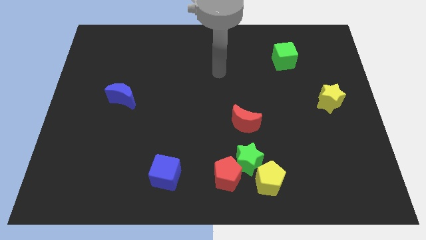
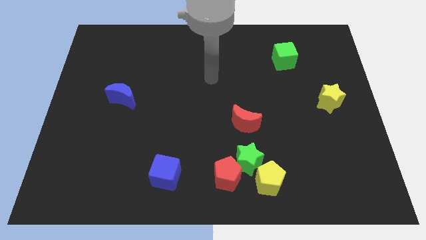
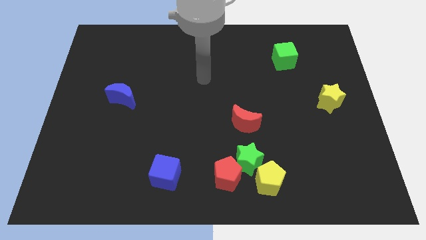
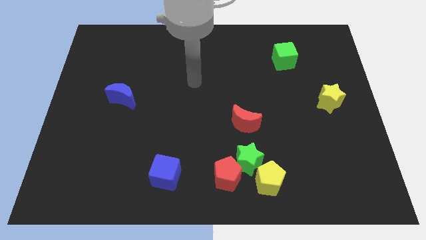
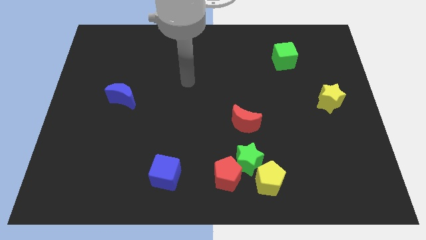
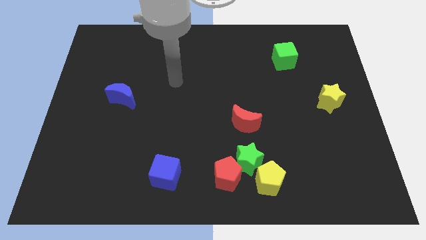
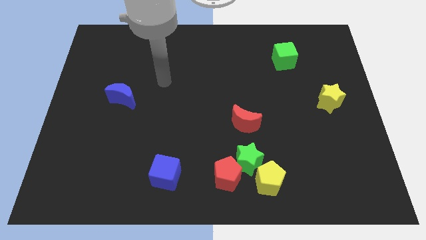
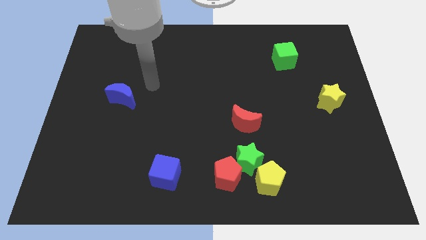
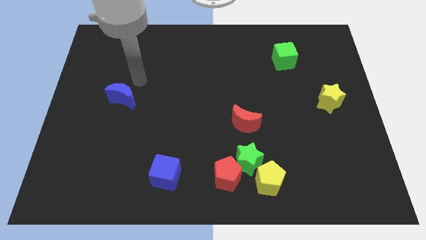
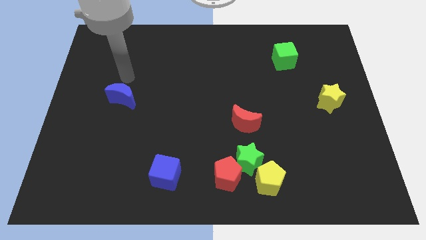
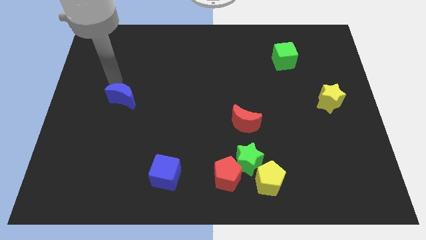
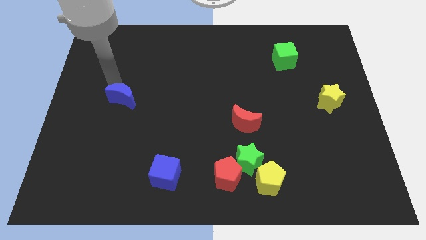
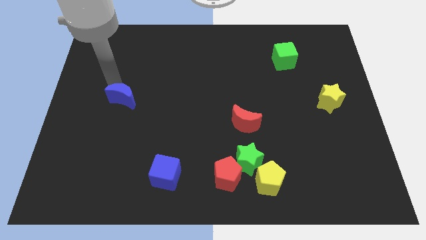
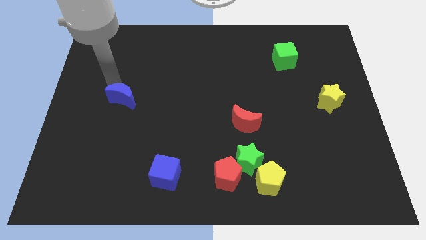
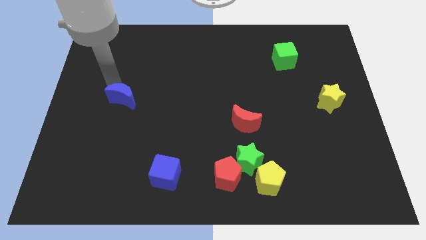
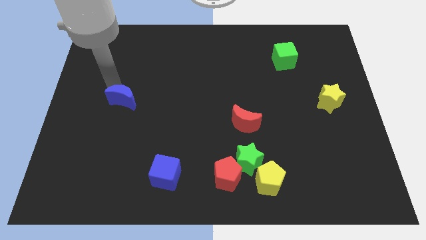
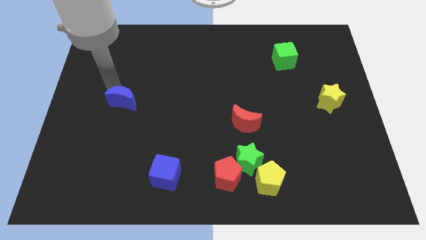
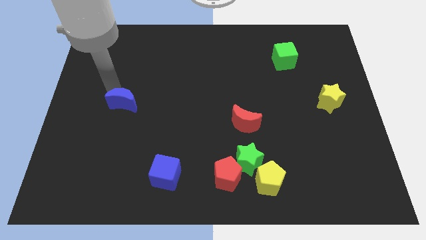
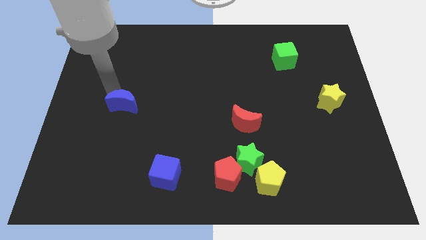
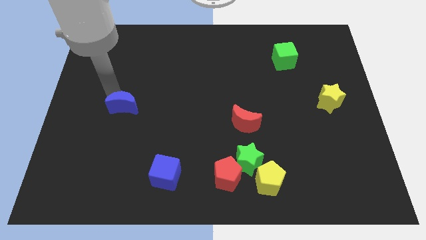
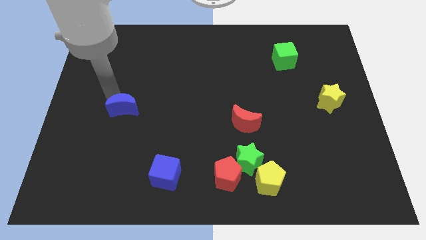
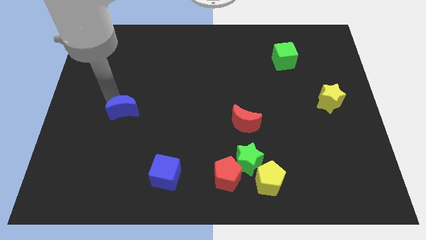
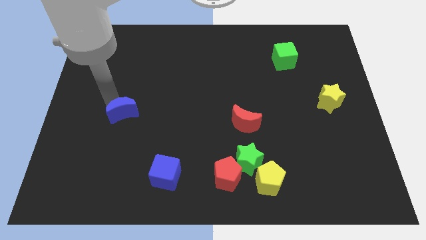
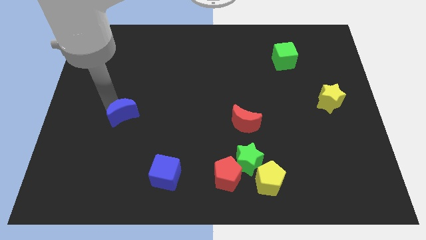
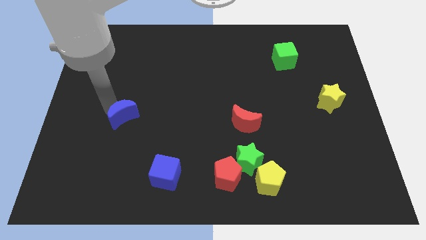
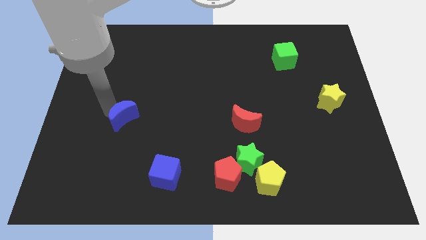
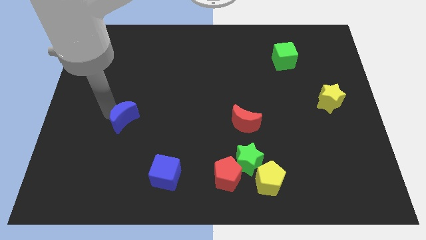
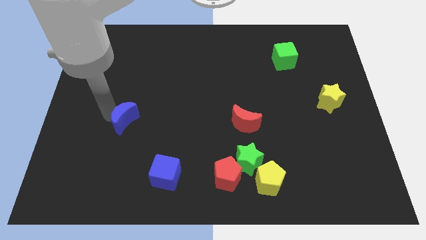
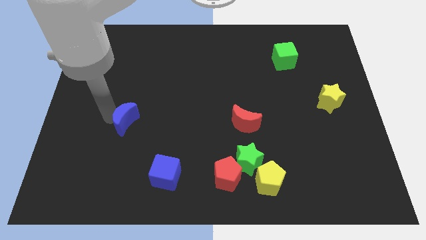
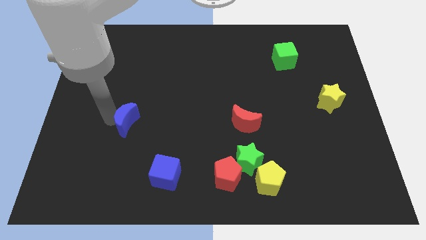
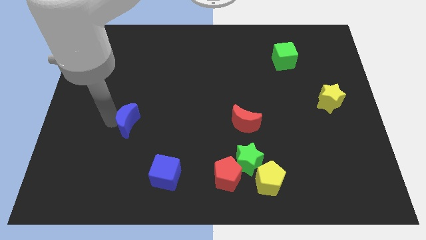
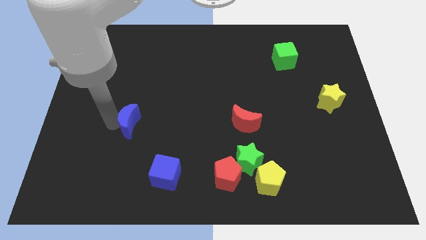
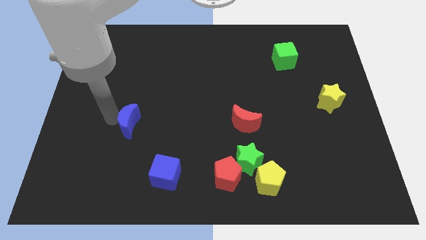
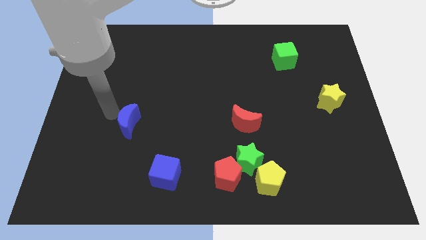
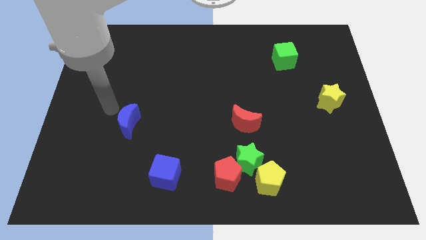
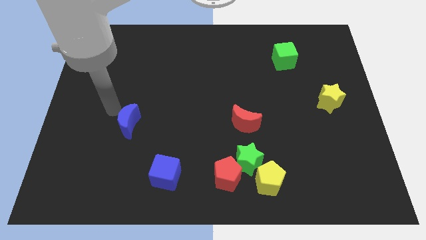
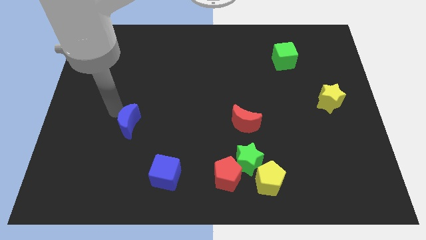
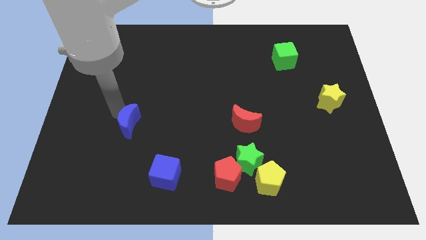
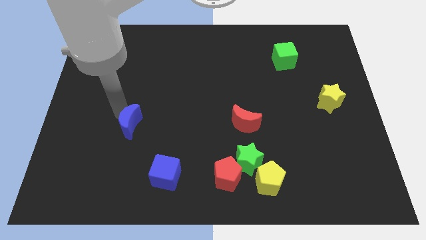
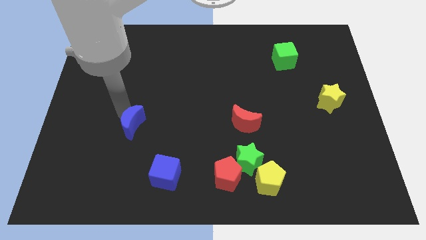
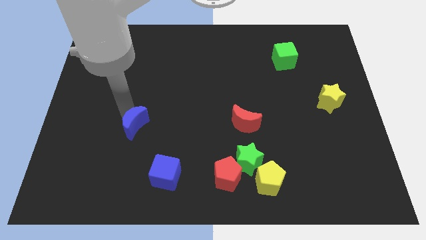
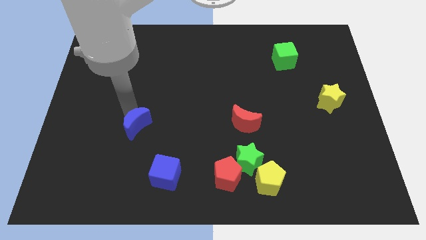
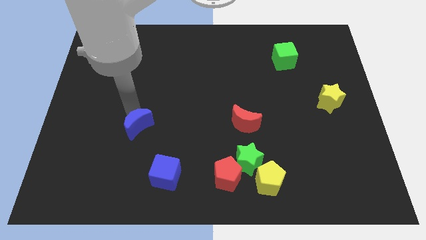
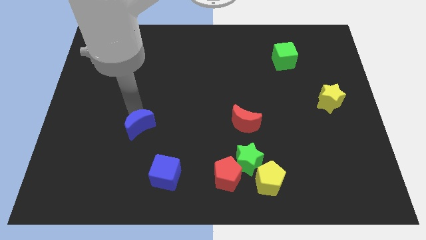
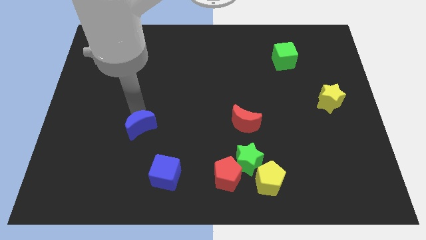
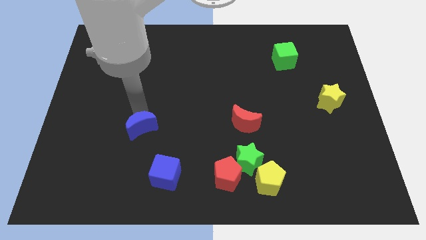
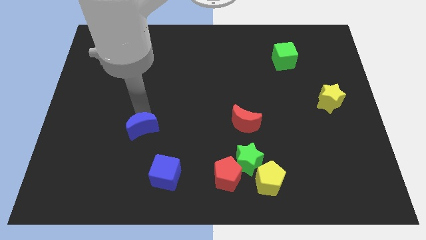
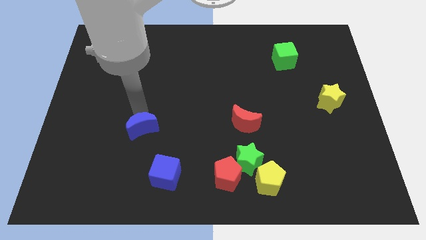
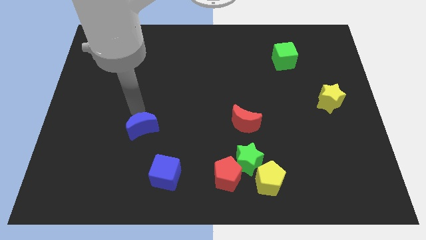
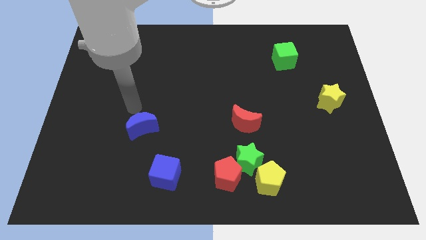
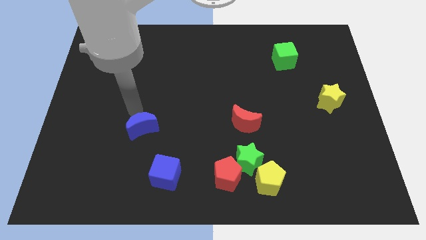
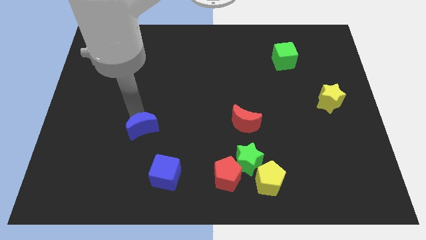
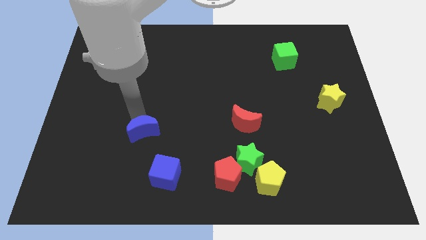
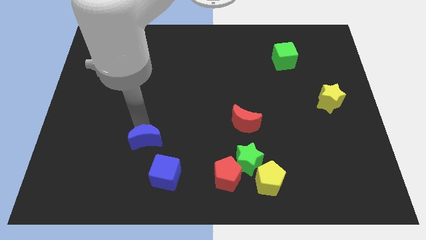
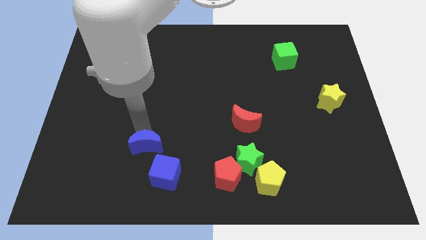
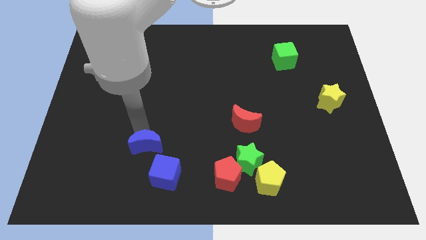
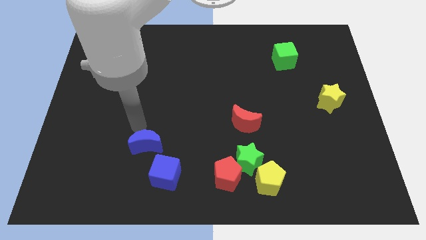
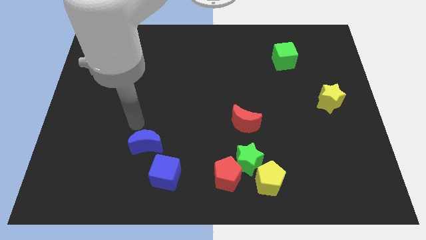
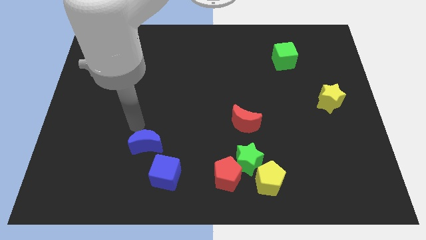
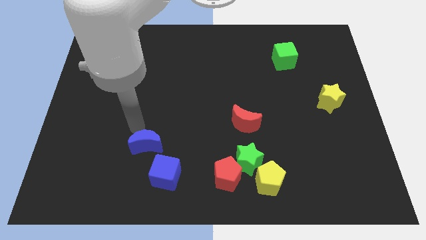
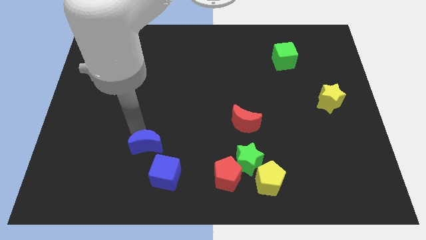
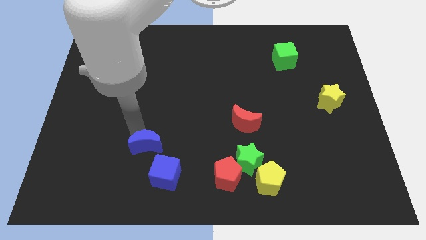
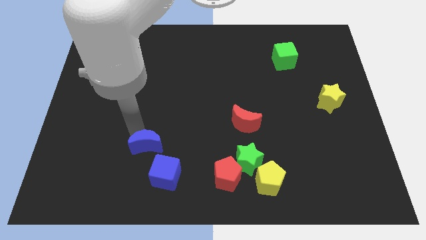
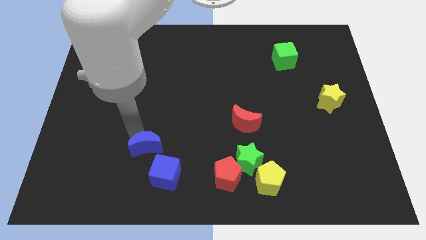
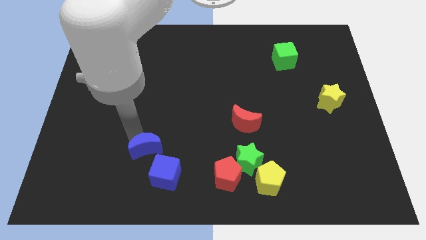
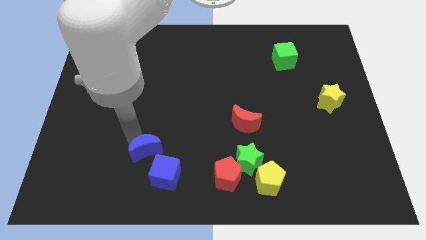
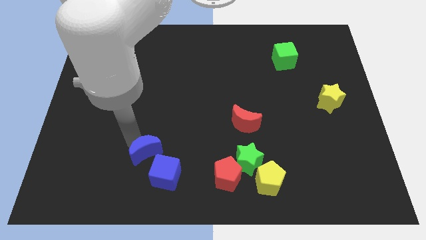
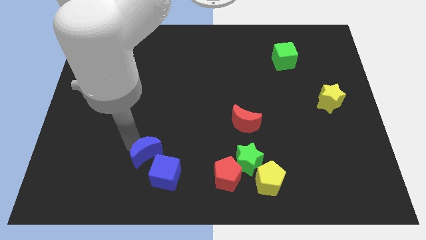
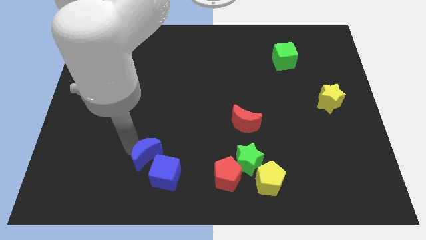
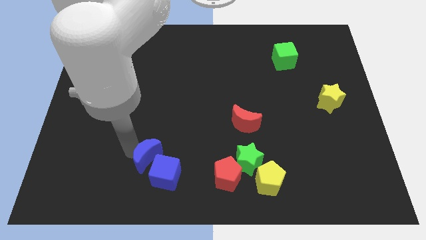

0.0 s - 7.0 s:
move the blue moon next to the blue cube
